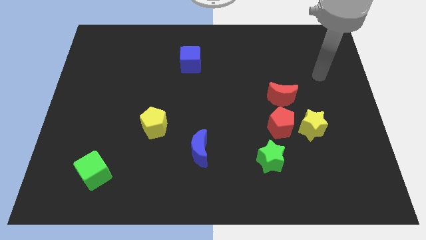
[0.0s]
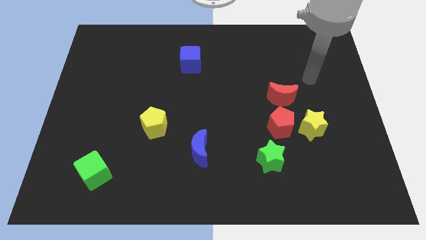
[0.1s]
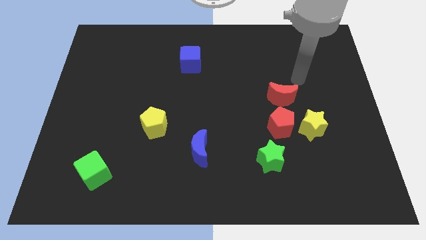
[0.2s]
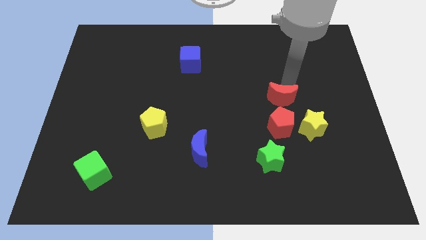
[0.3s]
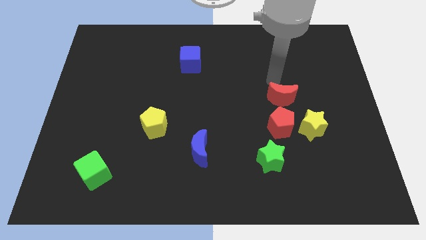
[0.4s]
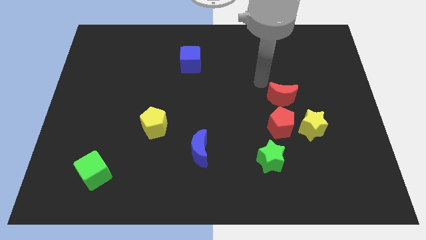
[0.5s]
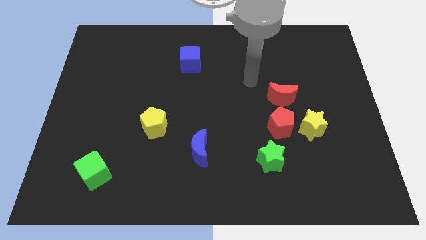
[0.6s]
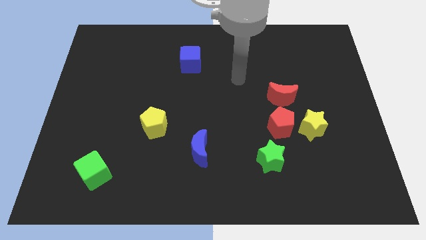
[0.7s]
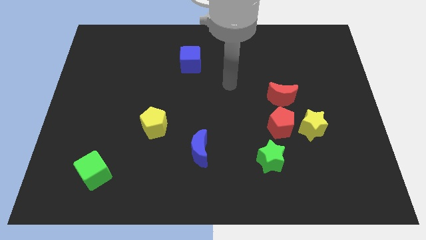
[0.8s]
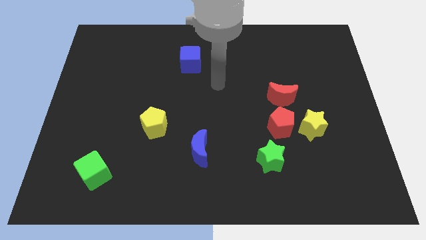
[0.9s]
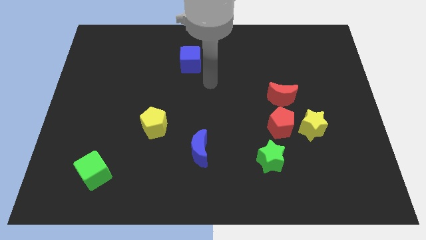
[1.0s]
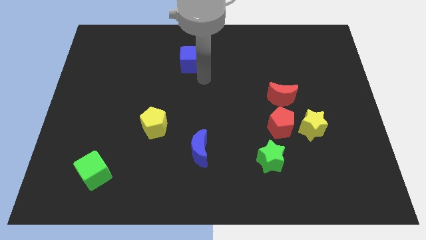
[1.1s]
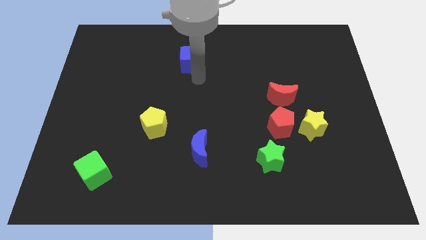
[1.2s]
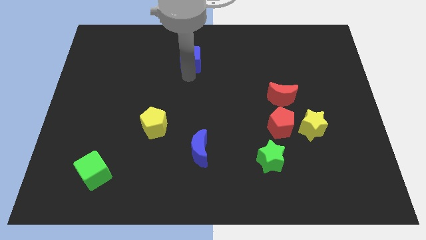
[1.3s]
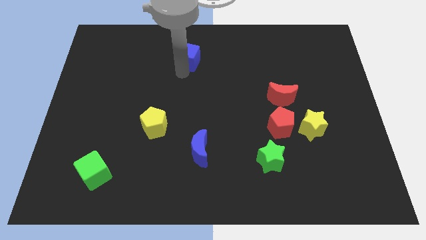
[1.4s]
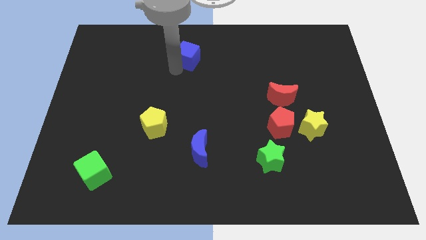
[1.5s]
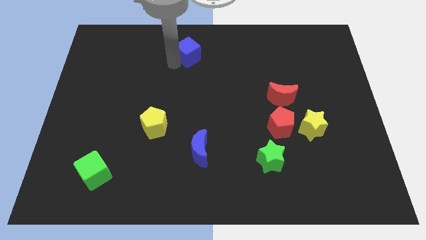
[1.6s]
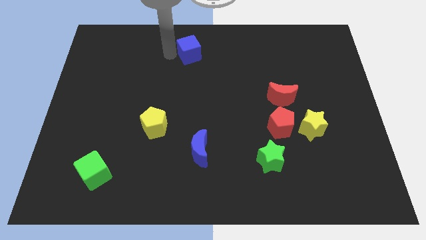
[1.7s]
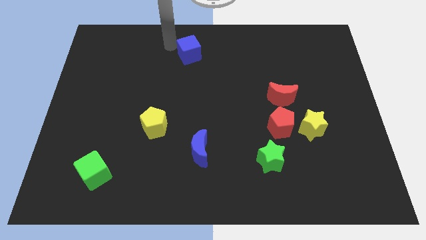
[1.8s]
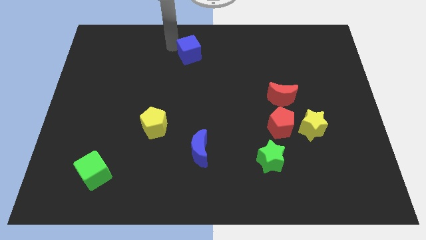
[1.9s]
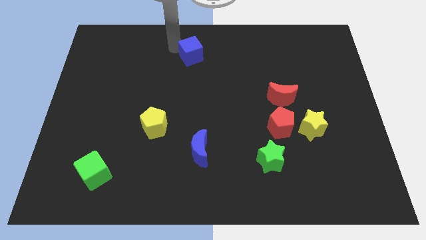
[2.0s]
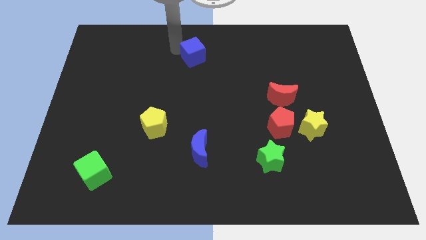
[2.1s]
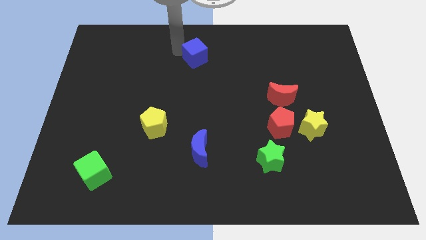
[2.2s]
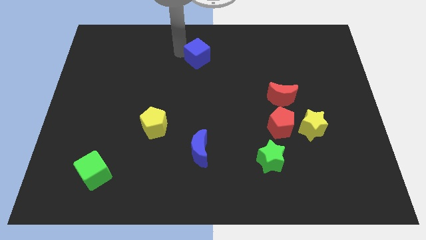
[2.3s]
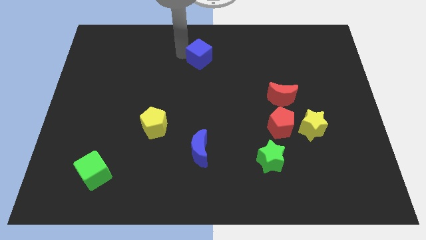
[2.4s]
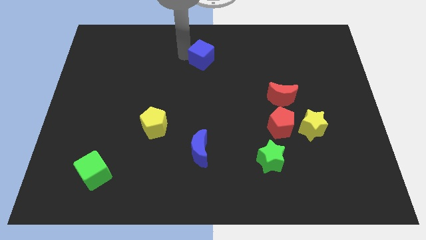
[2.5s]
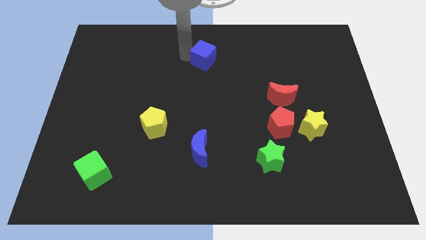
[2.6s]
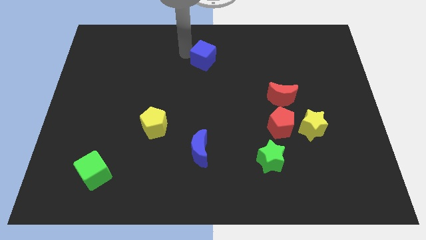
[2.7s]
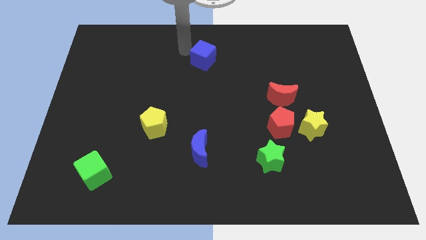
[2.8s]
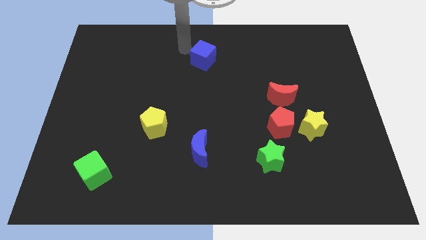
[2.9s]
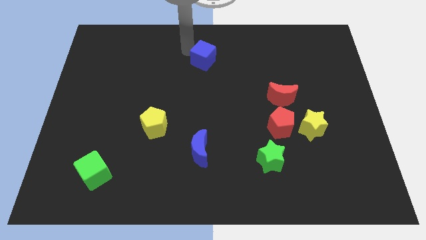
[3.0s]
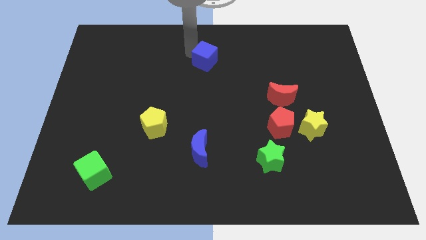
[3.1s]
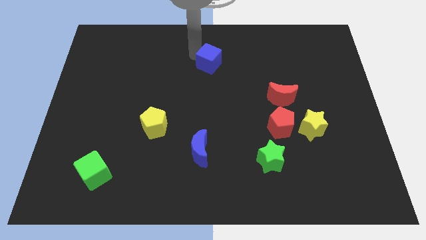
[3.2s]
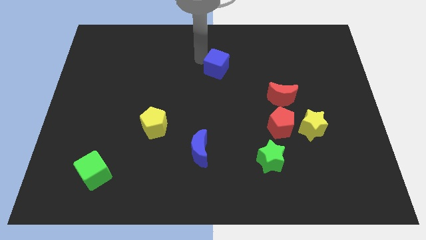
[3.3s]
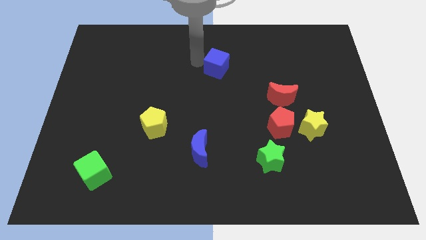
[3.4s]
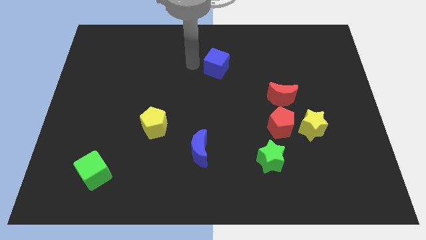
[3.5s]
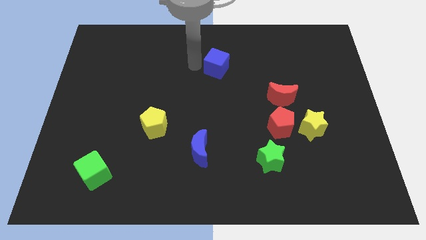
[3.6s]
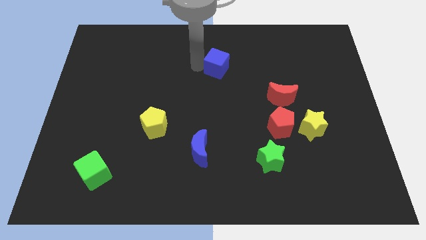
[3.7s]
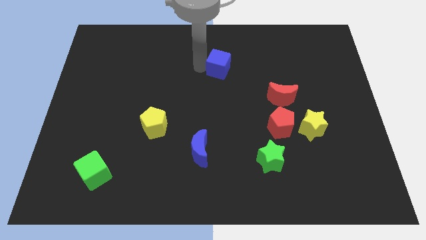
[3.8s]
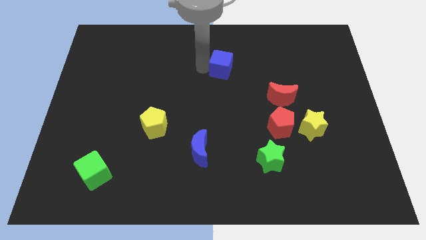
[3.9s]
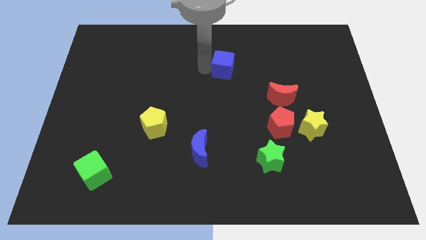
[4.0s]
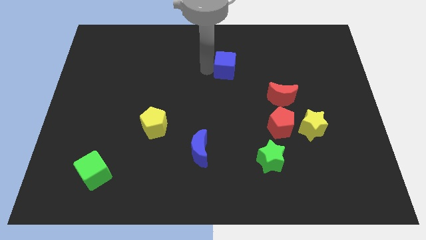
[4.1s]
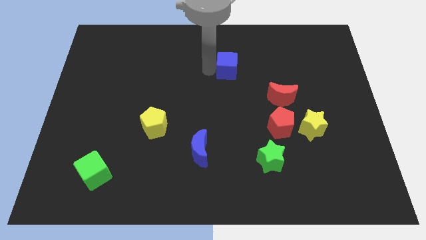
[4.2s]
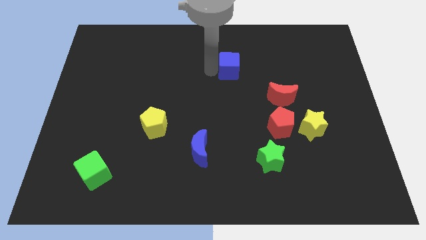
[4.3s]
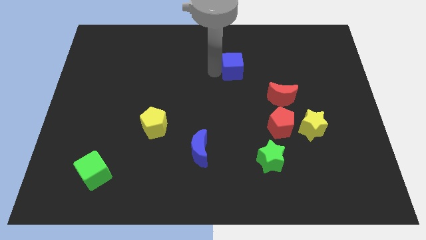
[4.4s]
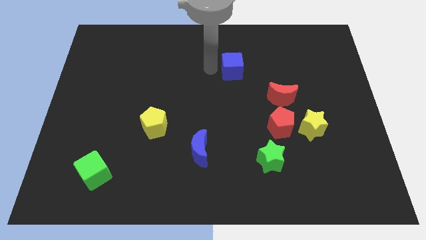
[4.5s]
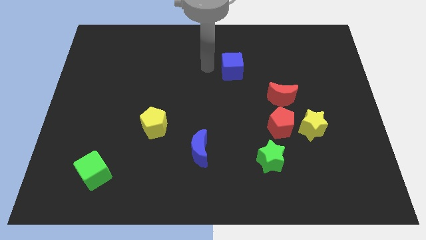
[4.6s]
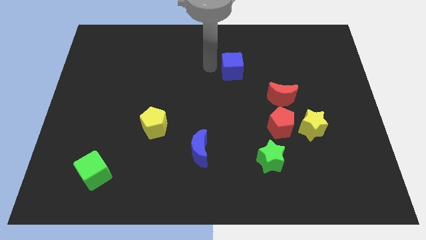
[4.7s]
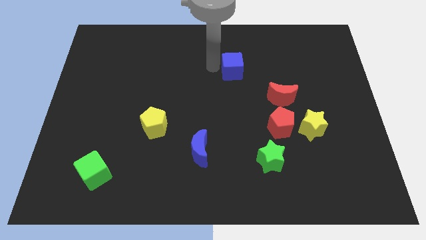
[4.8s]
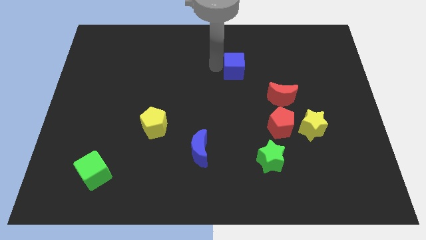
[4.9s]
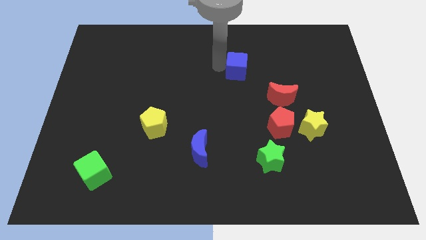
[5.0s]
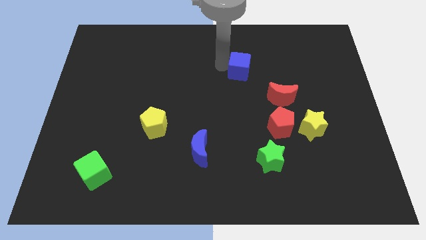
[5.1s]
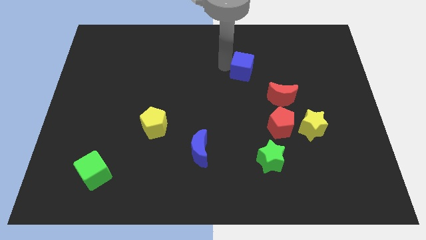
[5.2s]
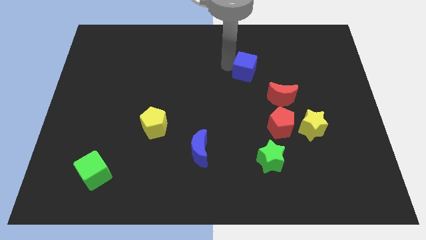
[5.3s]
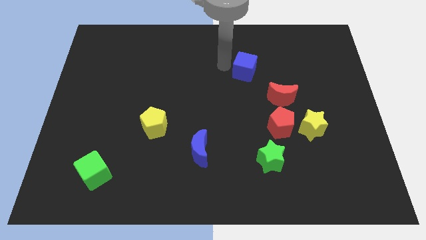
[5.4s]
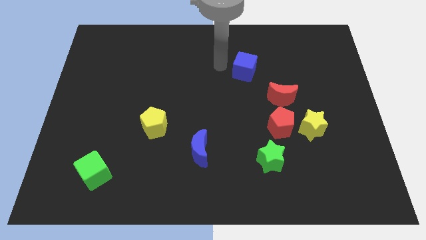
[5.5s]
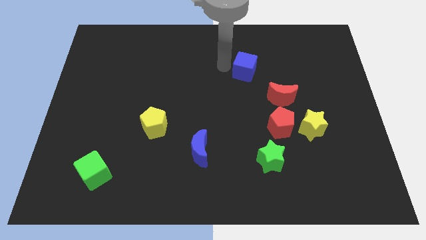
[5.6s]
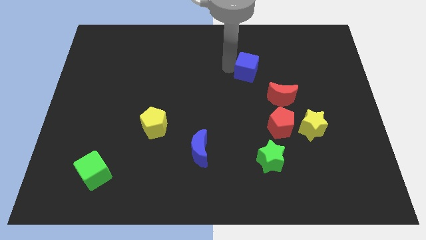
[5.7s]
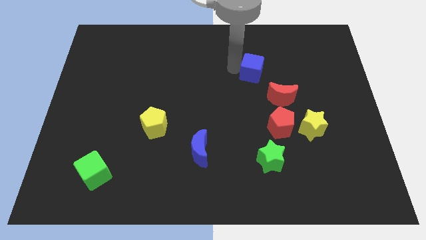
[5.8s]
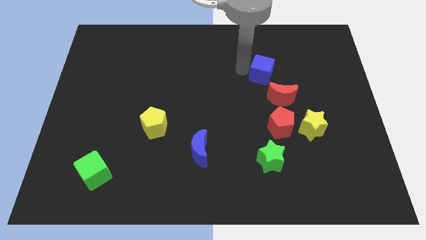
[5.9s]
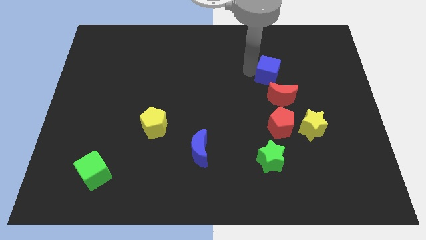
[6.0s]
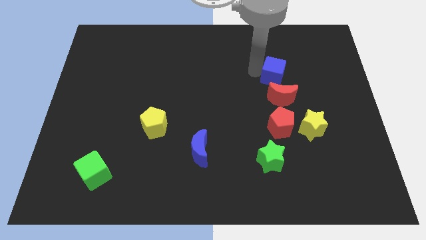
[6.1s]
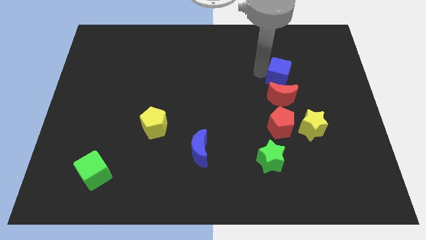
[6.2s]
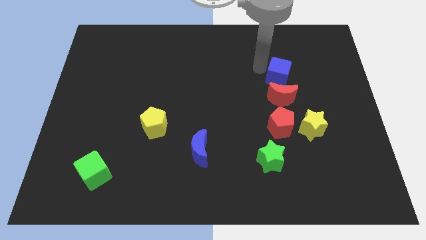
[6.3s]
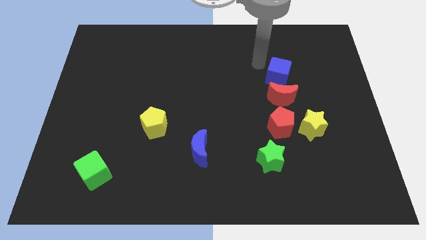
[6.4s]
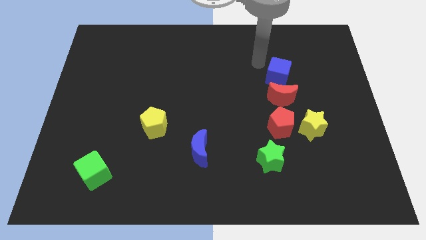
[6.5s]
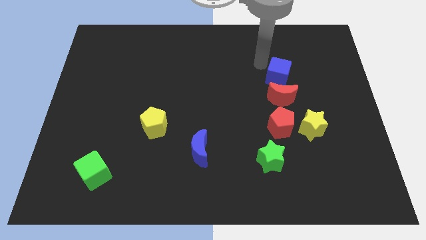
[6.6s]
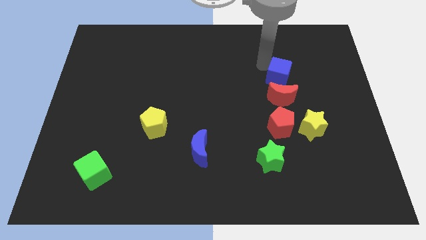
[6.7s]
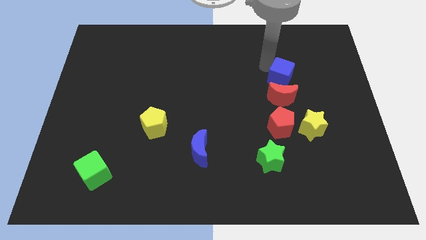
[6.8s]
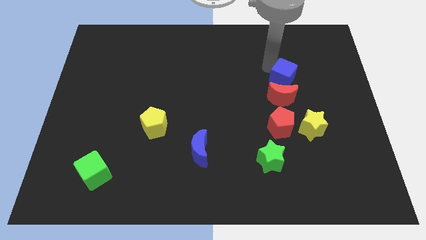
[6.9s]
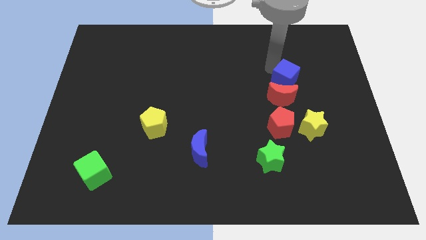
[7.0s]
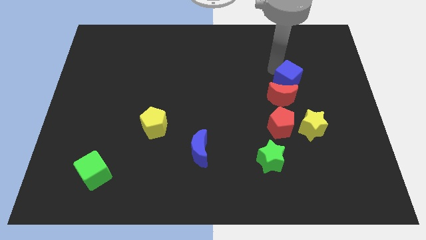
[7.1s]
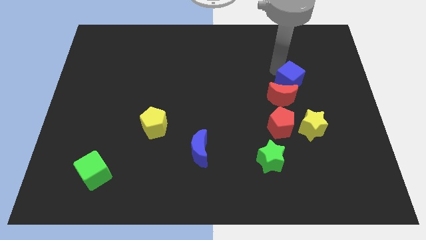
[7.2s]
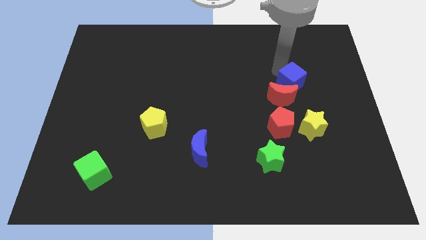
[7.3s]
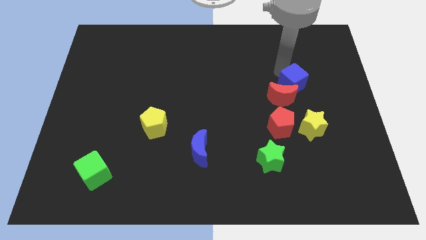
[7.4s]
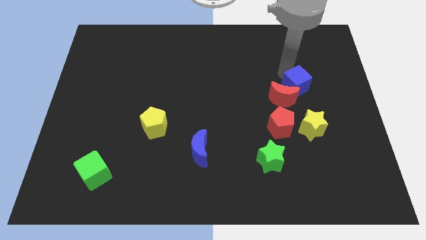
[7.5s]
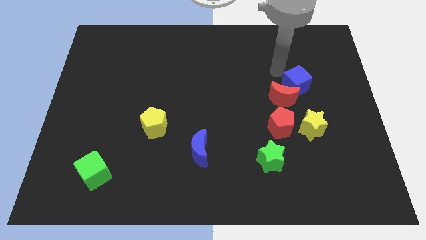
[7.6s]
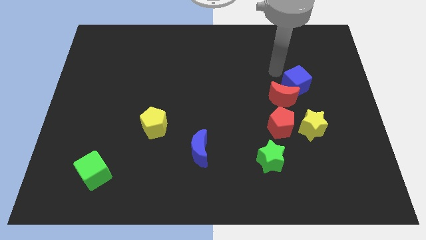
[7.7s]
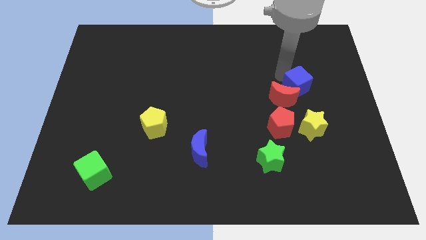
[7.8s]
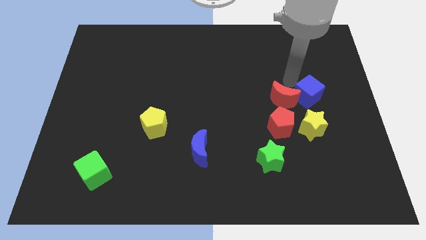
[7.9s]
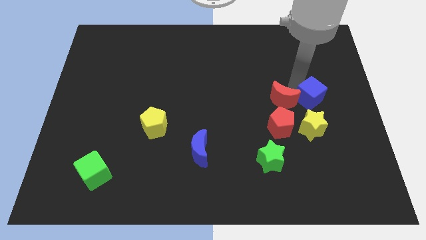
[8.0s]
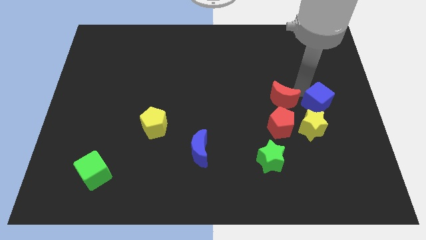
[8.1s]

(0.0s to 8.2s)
move the blue cube to the top right of the yellow star
